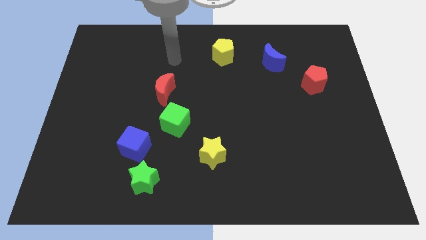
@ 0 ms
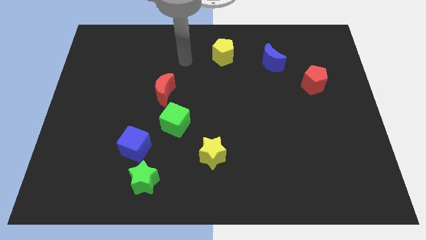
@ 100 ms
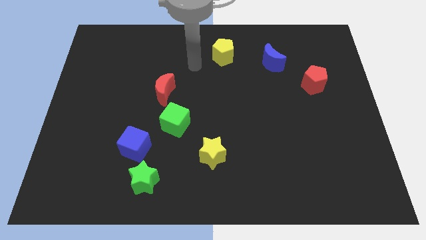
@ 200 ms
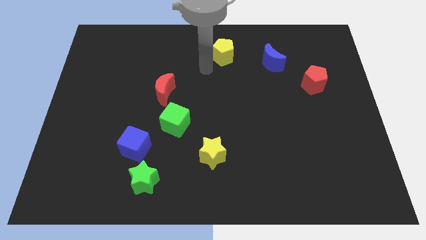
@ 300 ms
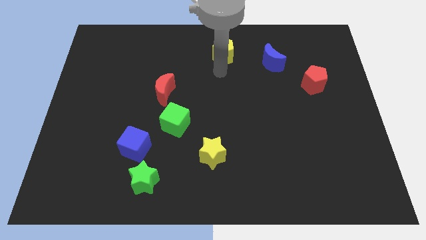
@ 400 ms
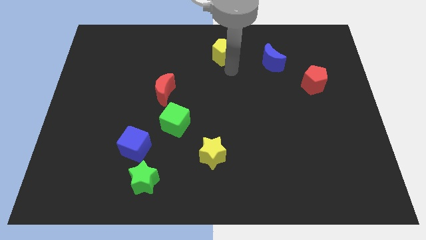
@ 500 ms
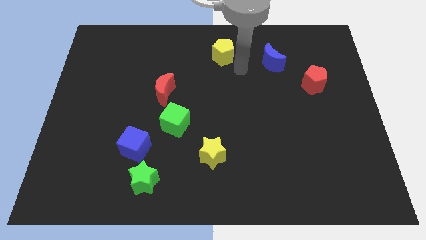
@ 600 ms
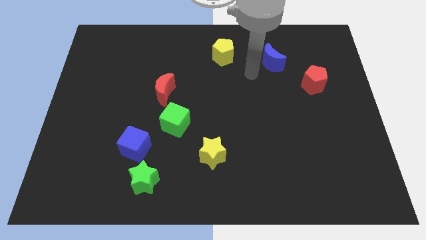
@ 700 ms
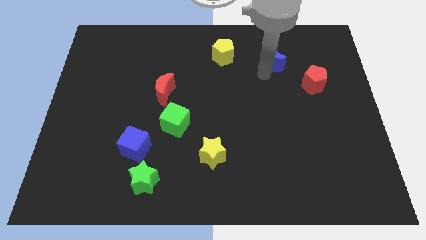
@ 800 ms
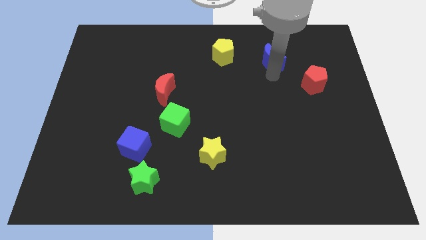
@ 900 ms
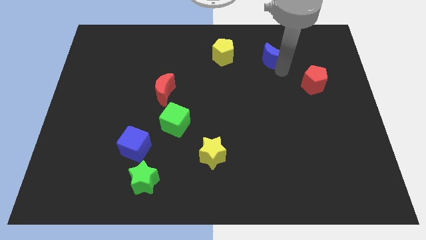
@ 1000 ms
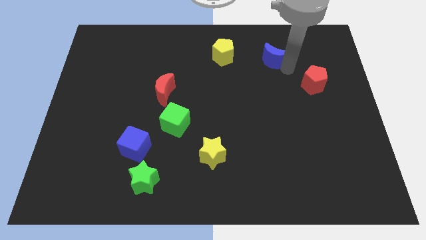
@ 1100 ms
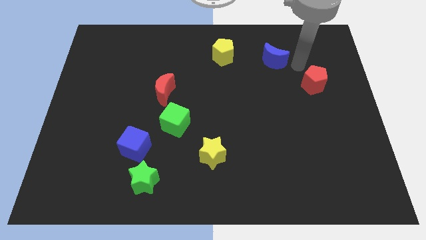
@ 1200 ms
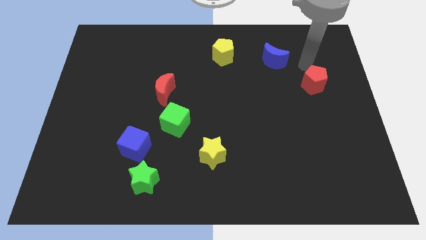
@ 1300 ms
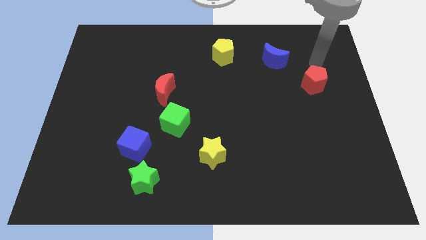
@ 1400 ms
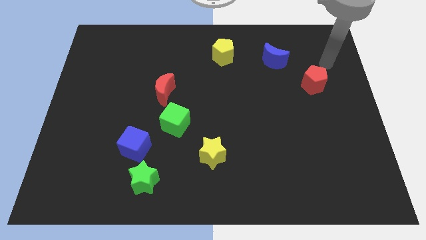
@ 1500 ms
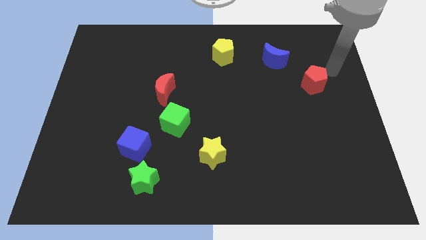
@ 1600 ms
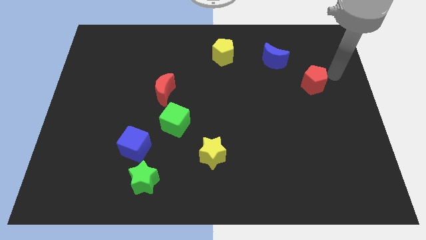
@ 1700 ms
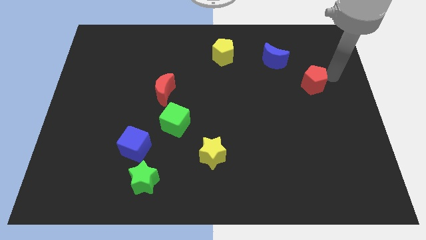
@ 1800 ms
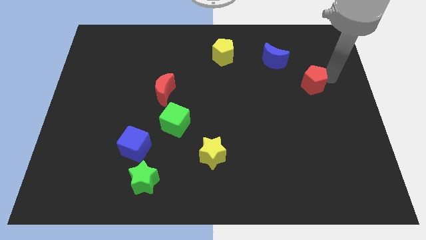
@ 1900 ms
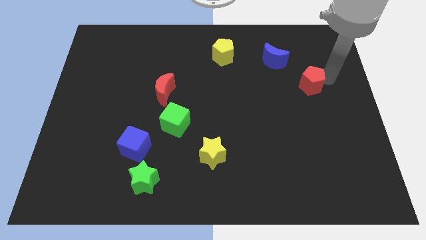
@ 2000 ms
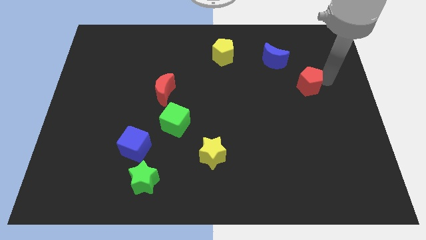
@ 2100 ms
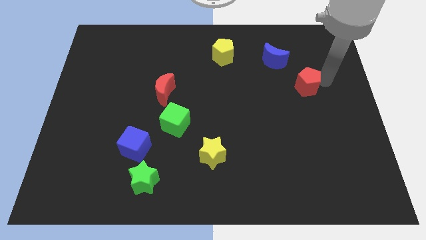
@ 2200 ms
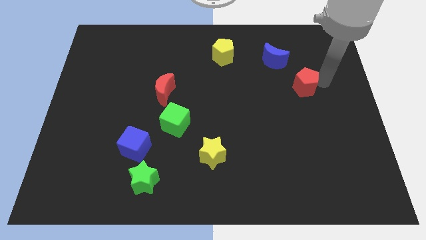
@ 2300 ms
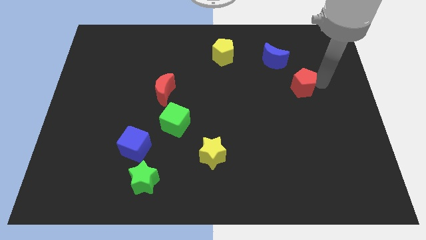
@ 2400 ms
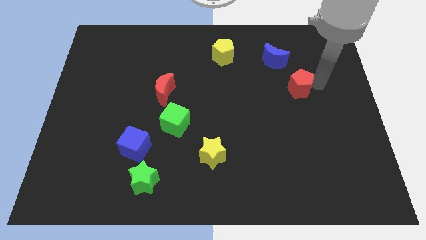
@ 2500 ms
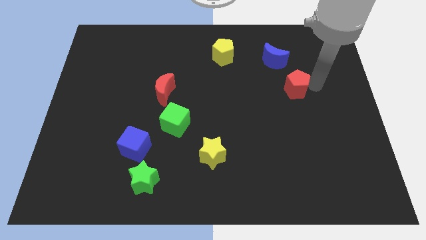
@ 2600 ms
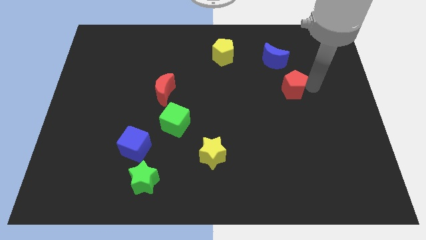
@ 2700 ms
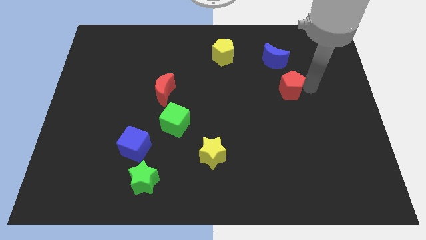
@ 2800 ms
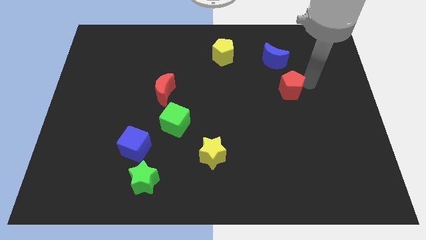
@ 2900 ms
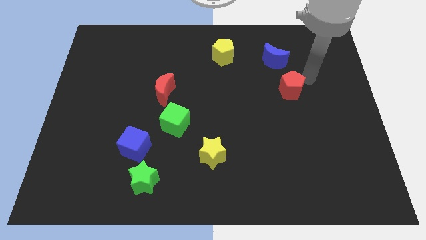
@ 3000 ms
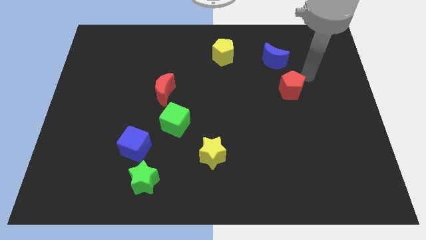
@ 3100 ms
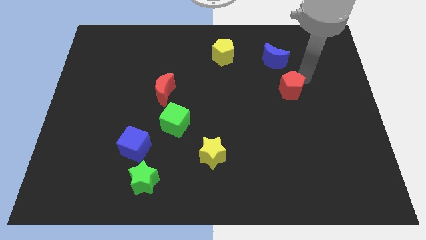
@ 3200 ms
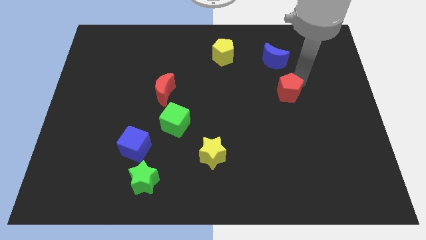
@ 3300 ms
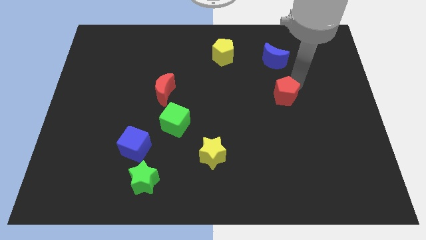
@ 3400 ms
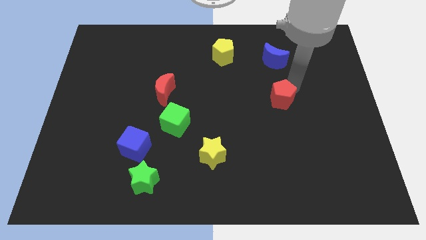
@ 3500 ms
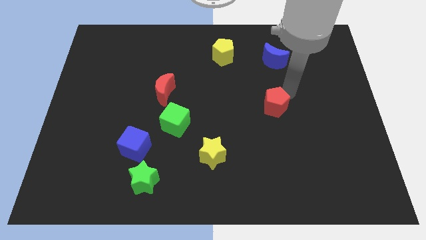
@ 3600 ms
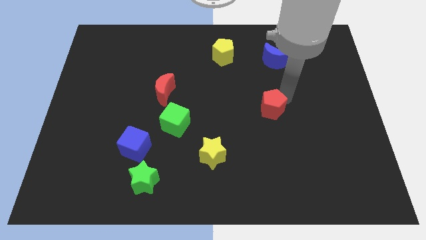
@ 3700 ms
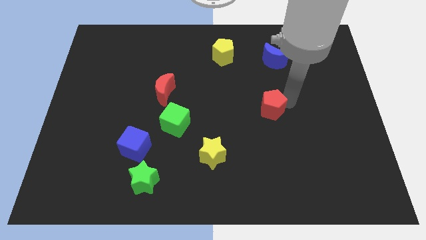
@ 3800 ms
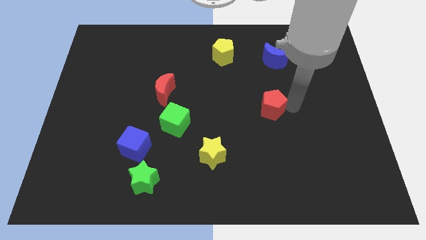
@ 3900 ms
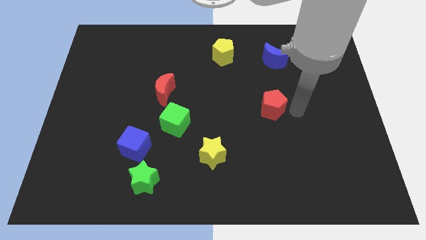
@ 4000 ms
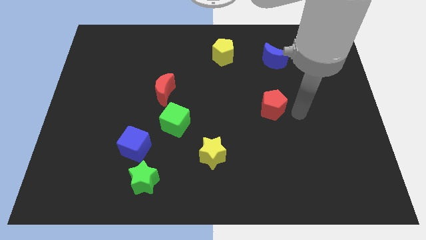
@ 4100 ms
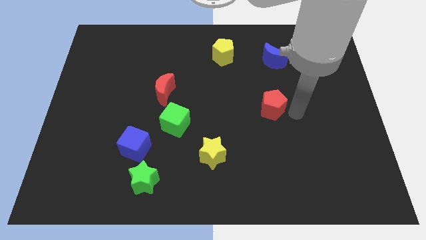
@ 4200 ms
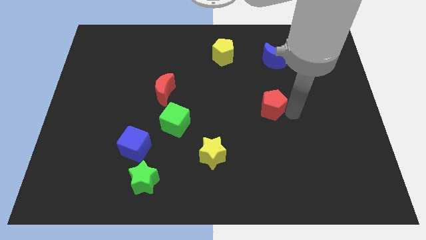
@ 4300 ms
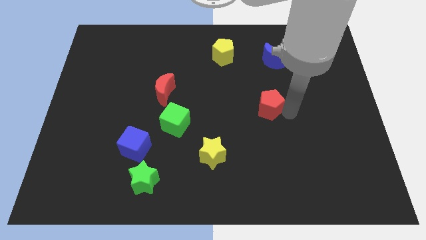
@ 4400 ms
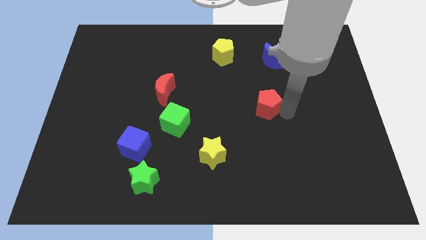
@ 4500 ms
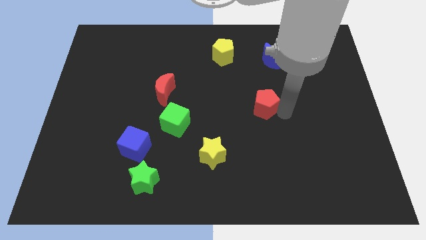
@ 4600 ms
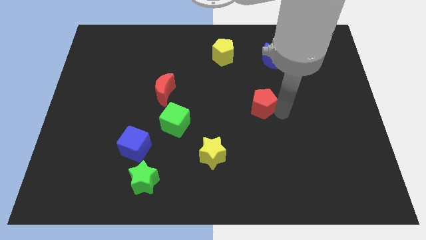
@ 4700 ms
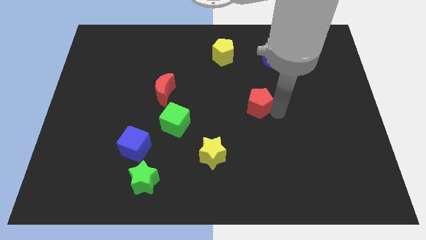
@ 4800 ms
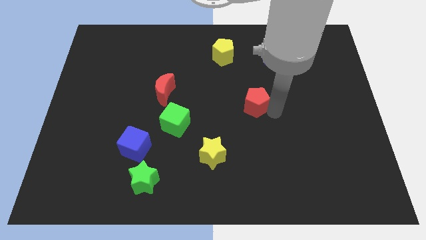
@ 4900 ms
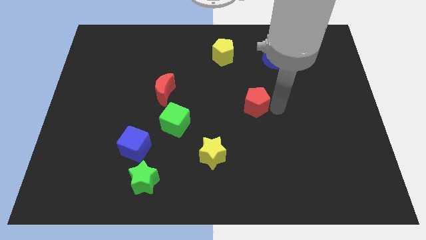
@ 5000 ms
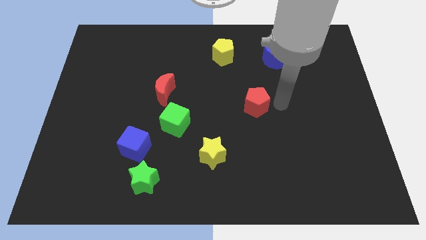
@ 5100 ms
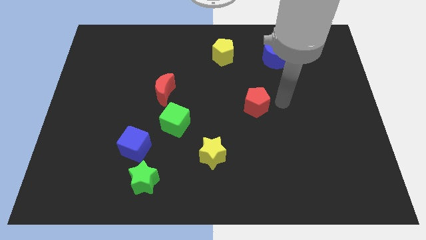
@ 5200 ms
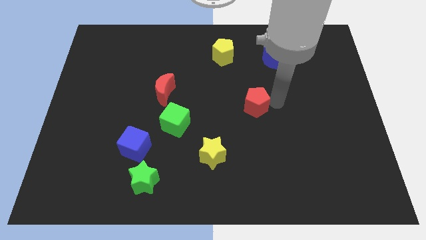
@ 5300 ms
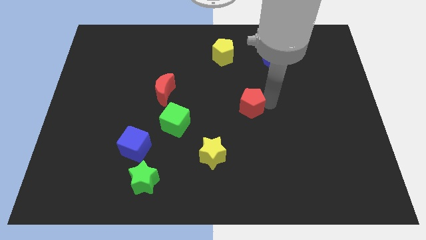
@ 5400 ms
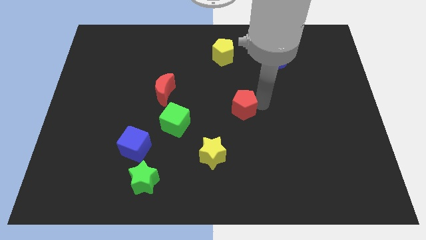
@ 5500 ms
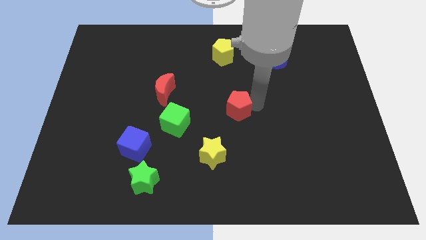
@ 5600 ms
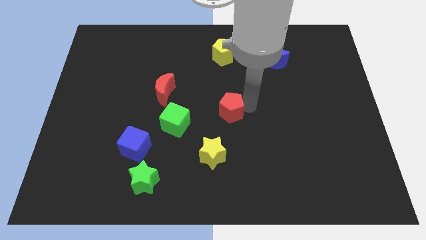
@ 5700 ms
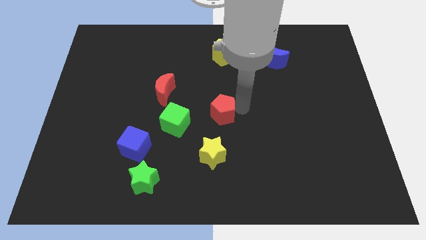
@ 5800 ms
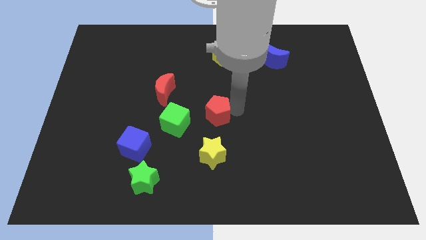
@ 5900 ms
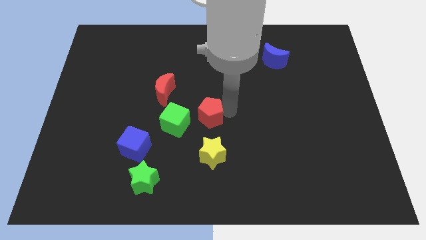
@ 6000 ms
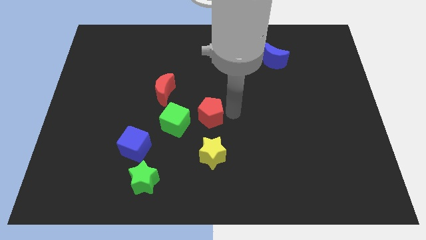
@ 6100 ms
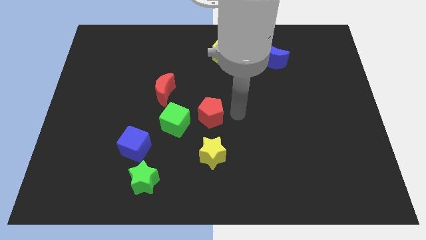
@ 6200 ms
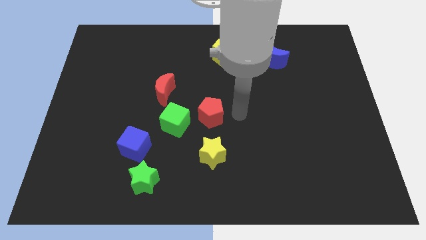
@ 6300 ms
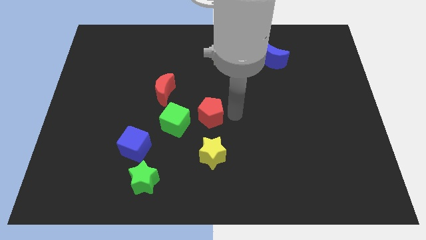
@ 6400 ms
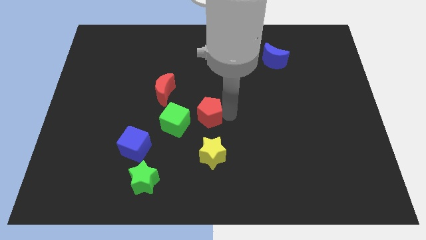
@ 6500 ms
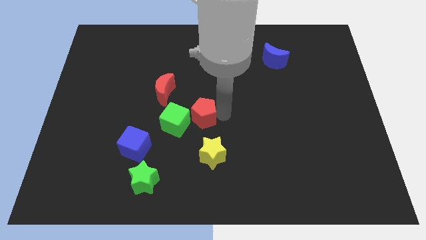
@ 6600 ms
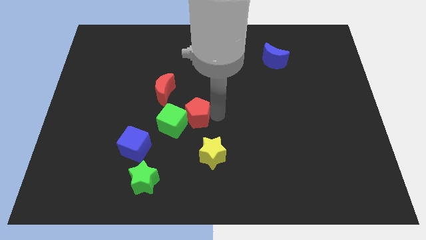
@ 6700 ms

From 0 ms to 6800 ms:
move the red pentagon next to the green cube

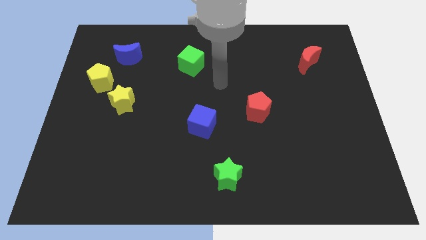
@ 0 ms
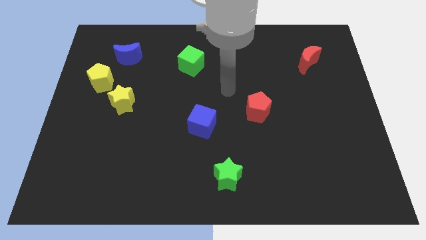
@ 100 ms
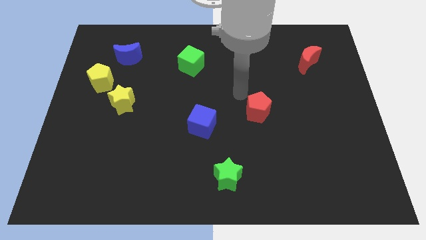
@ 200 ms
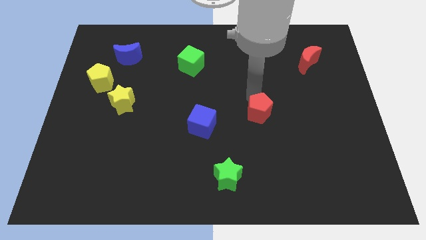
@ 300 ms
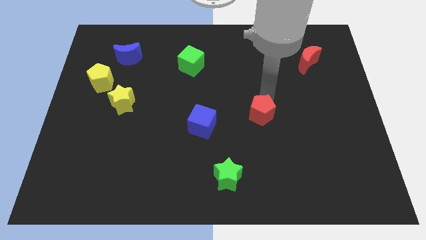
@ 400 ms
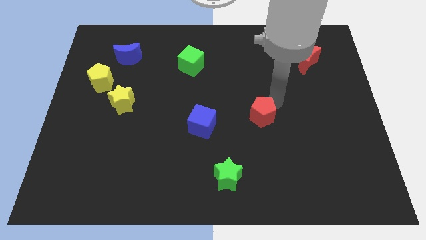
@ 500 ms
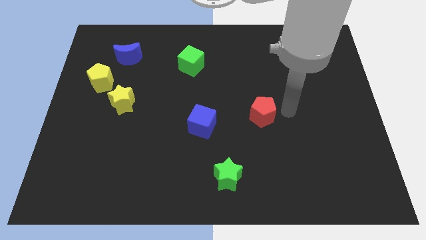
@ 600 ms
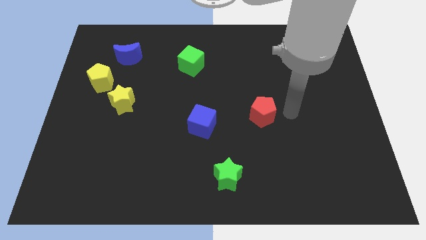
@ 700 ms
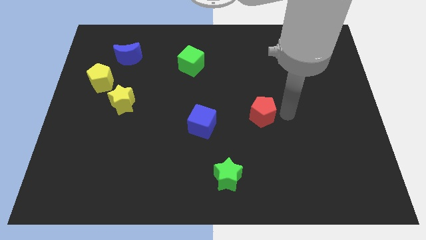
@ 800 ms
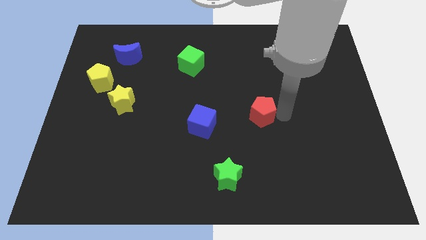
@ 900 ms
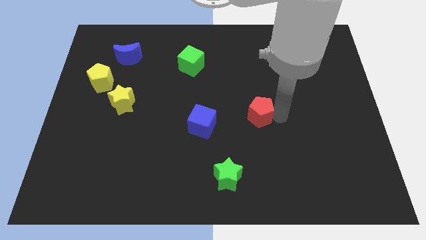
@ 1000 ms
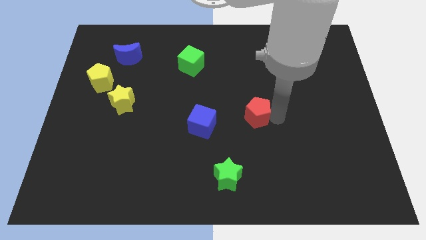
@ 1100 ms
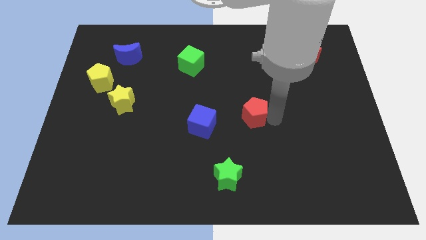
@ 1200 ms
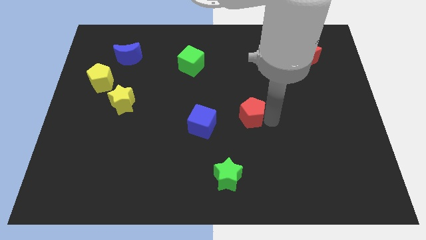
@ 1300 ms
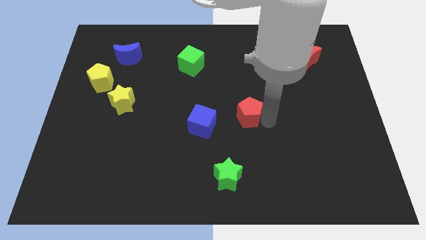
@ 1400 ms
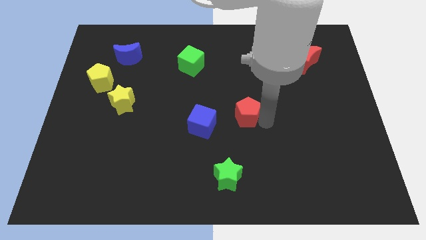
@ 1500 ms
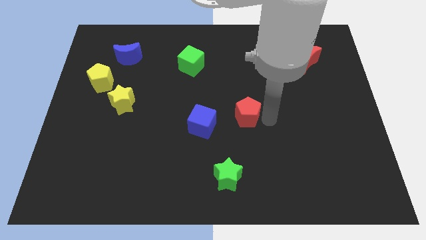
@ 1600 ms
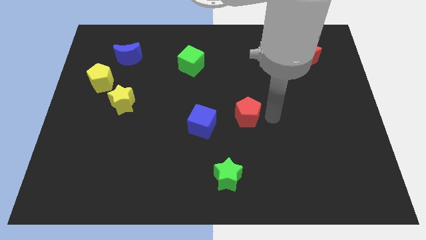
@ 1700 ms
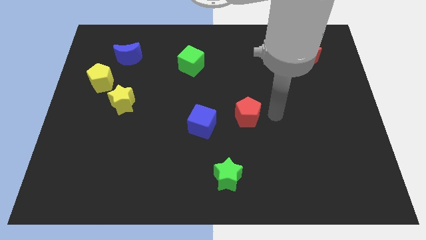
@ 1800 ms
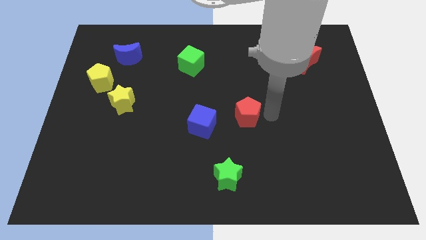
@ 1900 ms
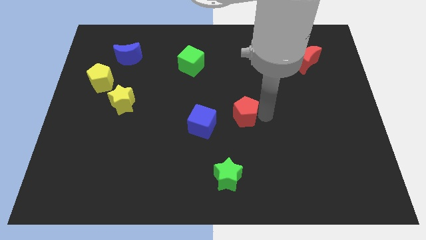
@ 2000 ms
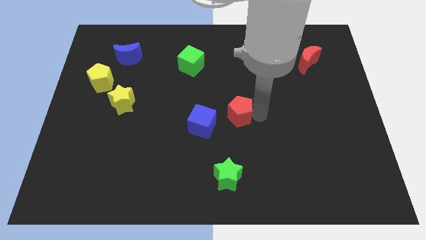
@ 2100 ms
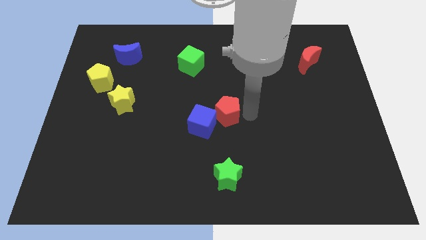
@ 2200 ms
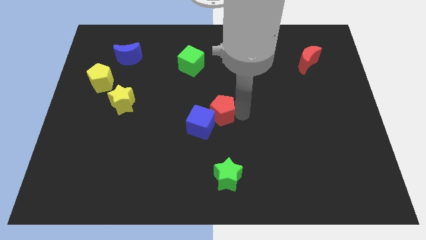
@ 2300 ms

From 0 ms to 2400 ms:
push the red pentagon to the blue cube
